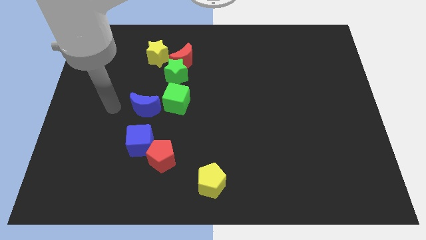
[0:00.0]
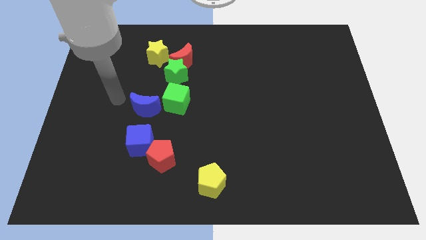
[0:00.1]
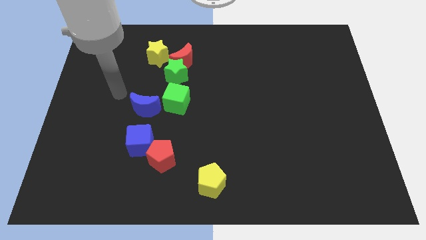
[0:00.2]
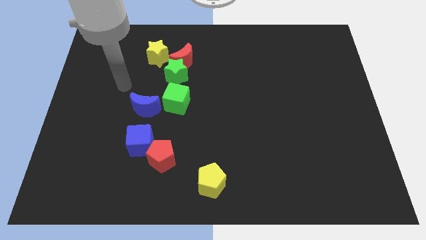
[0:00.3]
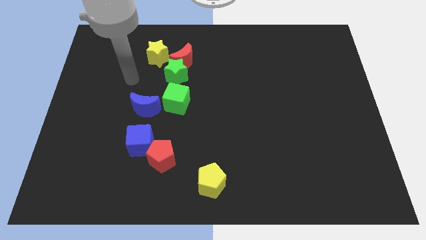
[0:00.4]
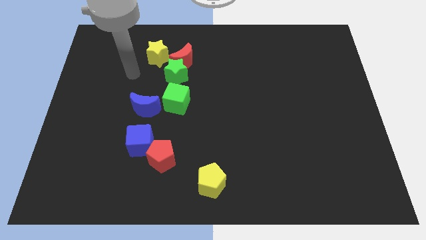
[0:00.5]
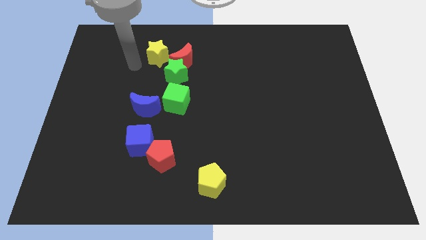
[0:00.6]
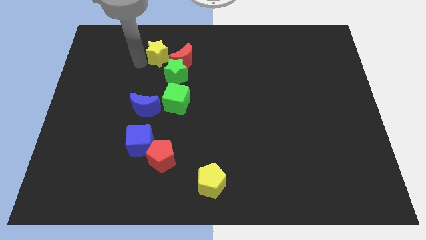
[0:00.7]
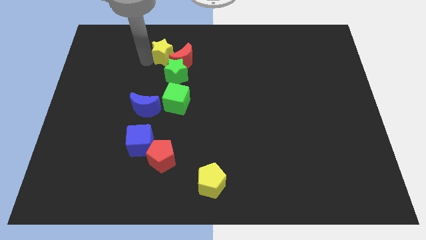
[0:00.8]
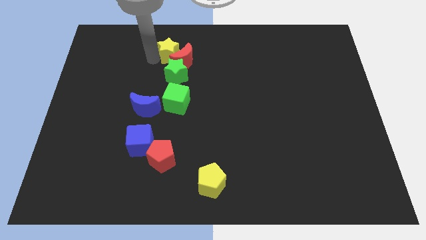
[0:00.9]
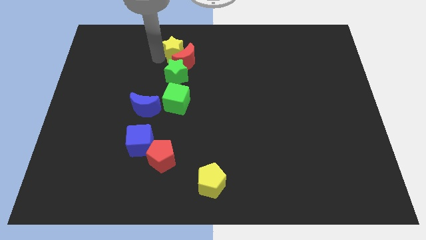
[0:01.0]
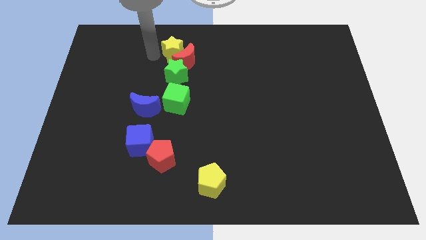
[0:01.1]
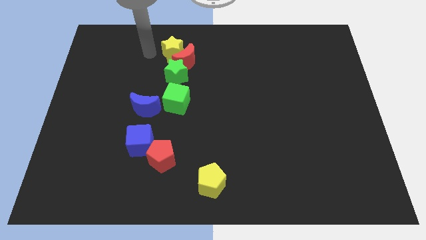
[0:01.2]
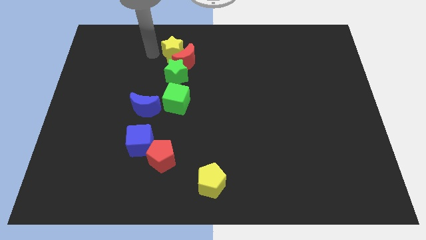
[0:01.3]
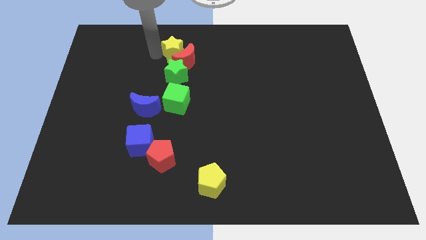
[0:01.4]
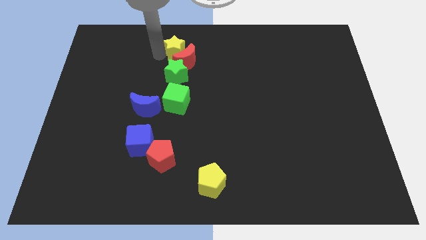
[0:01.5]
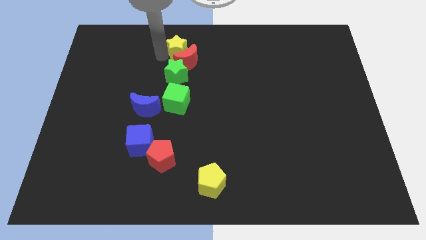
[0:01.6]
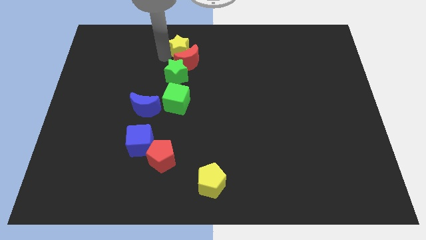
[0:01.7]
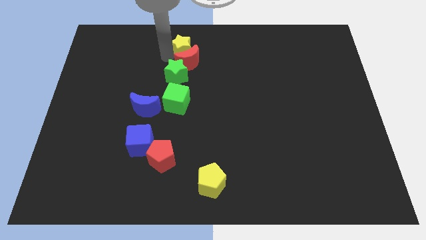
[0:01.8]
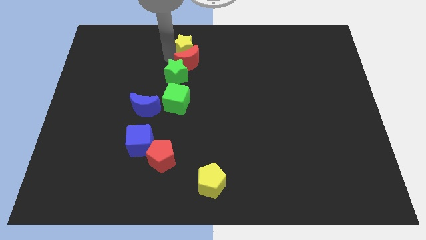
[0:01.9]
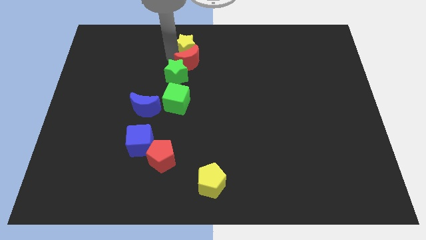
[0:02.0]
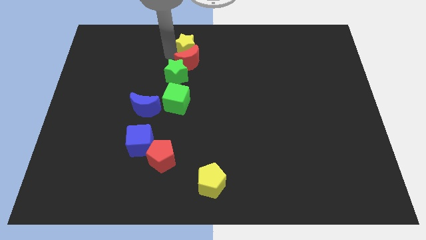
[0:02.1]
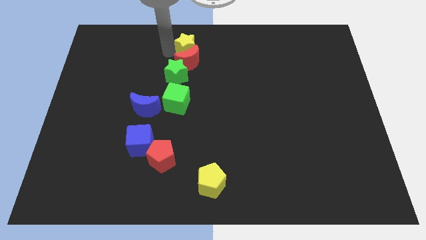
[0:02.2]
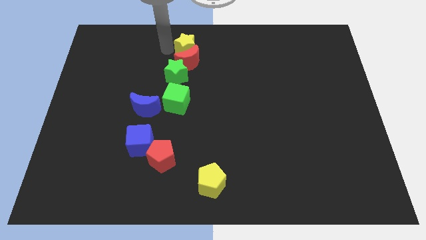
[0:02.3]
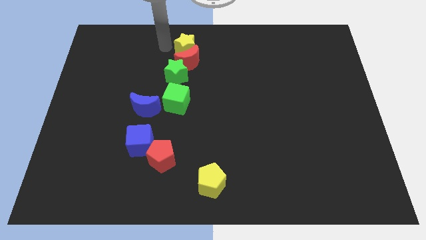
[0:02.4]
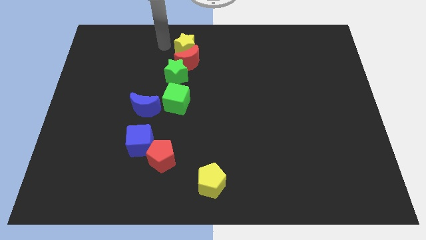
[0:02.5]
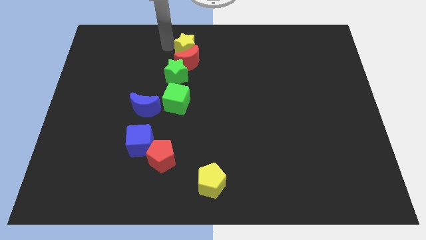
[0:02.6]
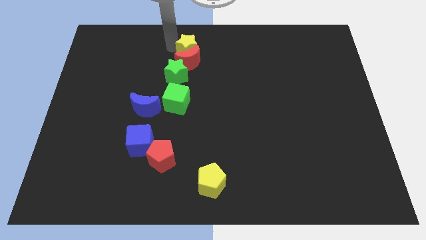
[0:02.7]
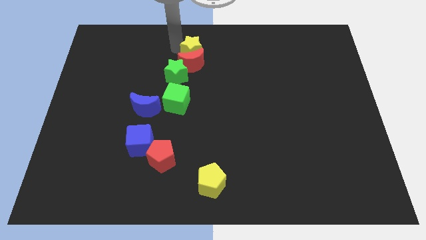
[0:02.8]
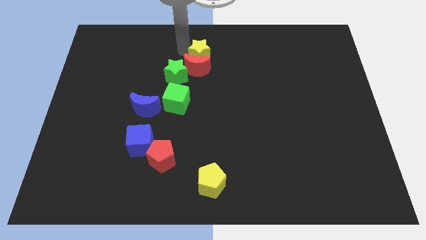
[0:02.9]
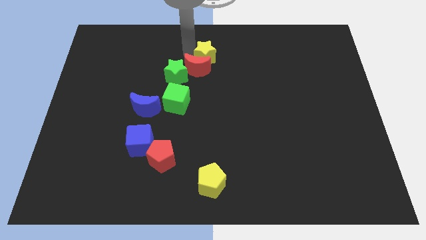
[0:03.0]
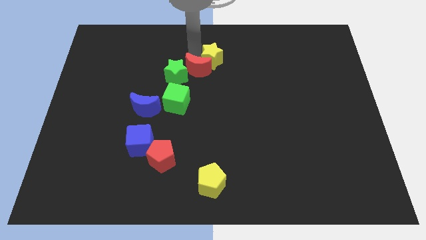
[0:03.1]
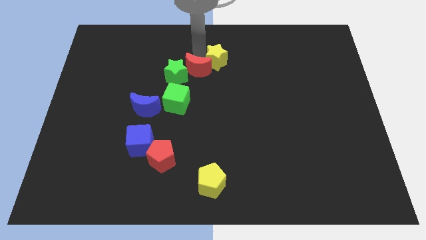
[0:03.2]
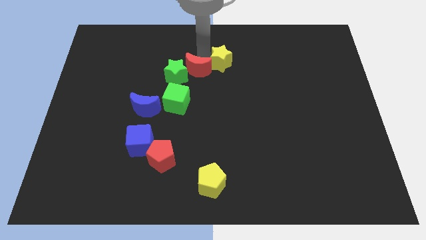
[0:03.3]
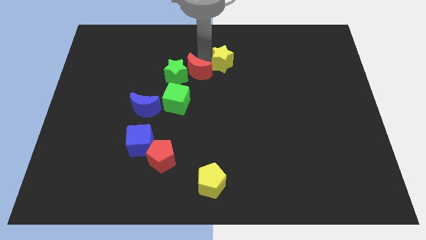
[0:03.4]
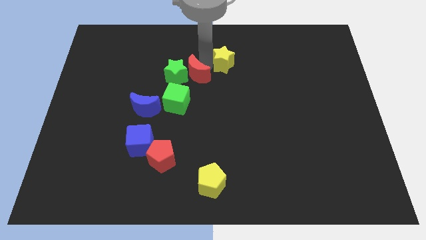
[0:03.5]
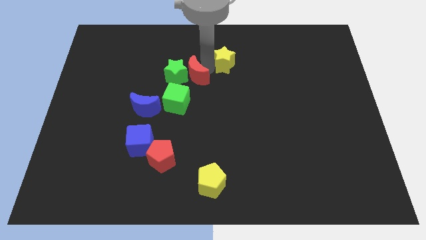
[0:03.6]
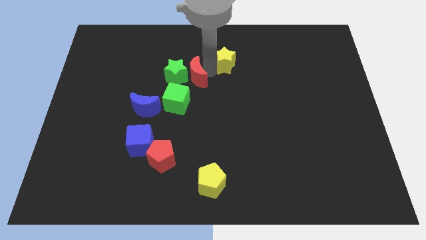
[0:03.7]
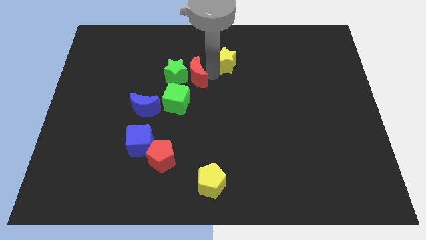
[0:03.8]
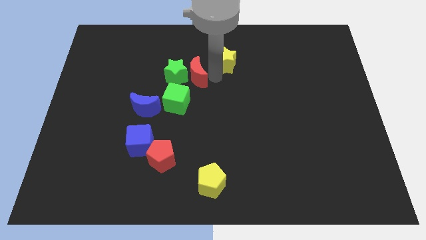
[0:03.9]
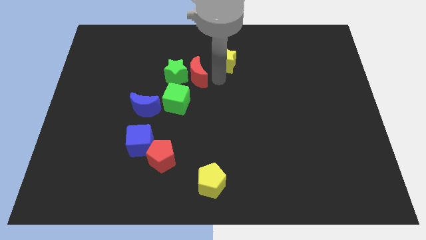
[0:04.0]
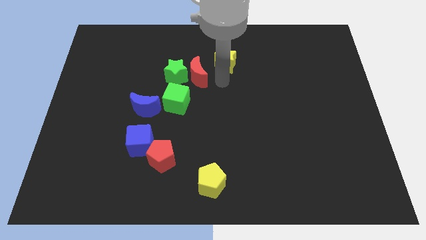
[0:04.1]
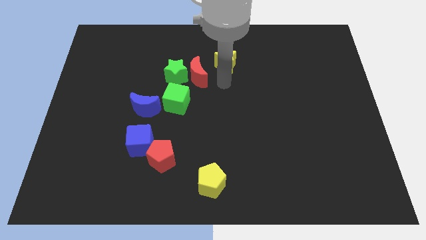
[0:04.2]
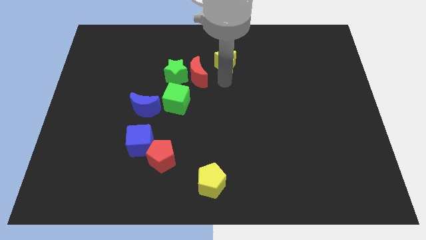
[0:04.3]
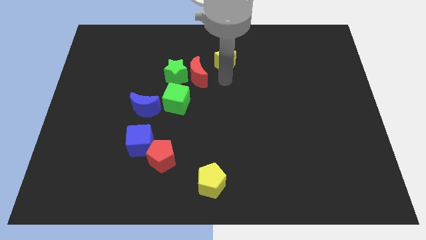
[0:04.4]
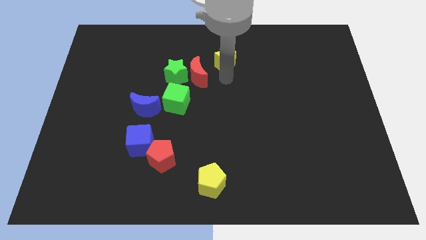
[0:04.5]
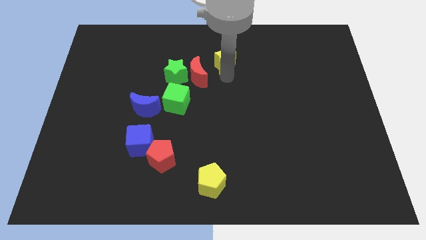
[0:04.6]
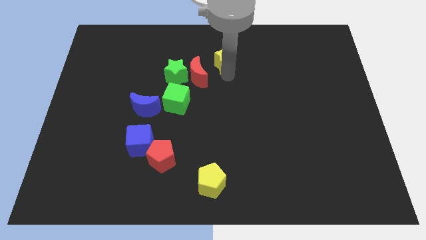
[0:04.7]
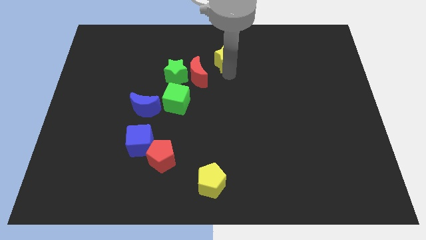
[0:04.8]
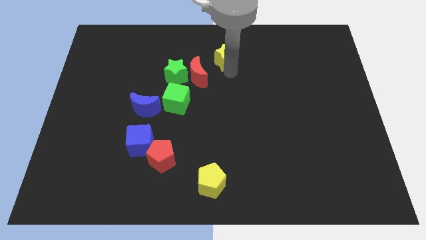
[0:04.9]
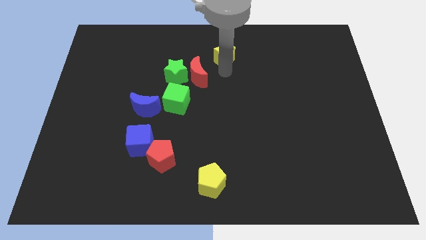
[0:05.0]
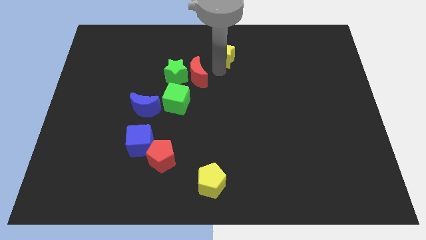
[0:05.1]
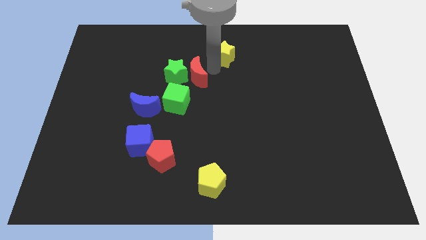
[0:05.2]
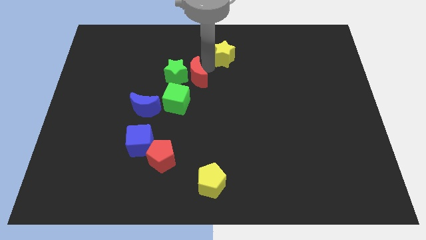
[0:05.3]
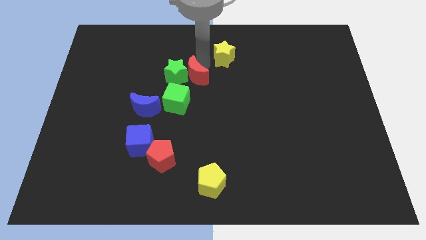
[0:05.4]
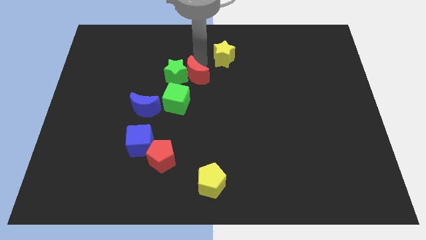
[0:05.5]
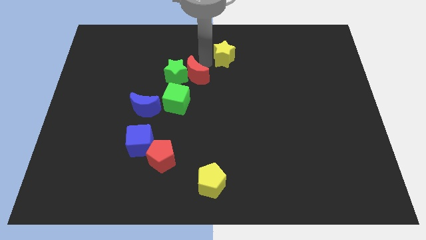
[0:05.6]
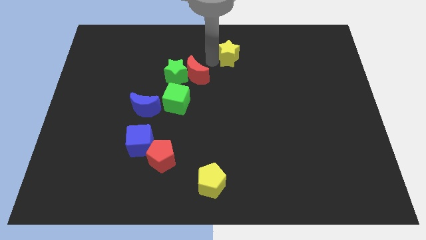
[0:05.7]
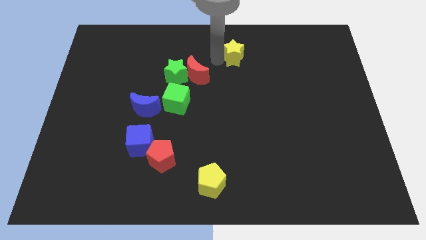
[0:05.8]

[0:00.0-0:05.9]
move the yellow star right

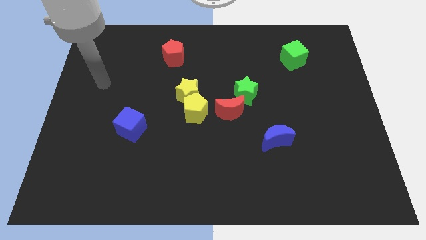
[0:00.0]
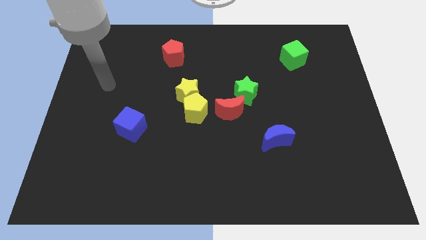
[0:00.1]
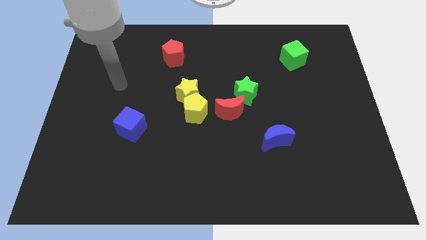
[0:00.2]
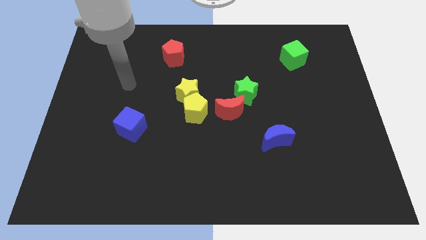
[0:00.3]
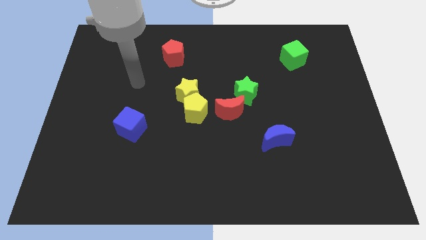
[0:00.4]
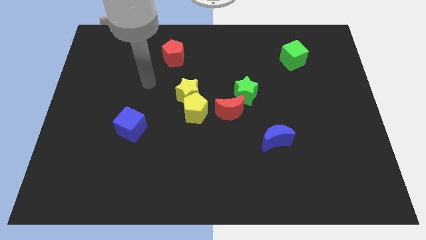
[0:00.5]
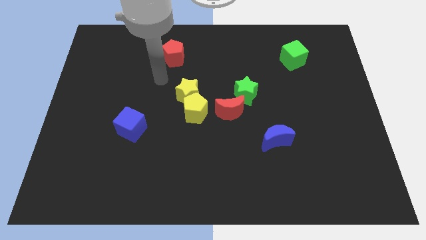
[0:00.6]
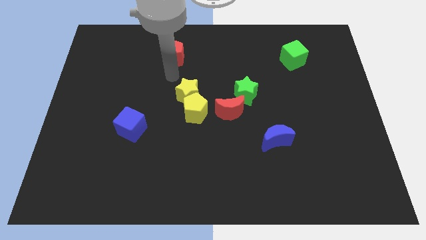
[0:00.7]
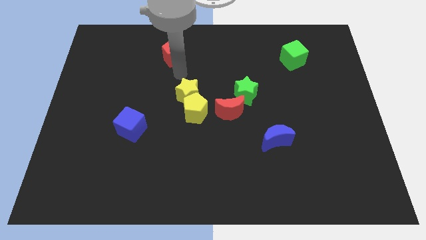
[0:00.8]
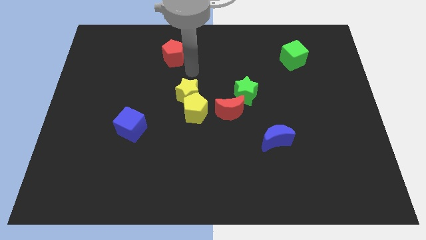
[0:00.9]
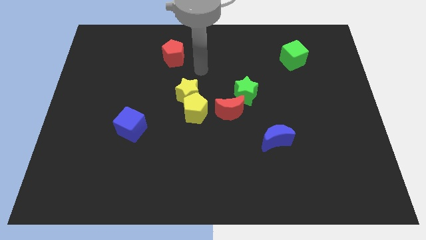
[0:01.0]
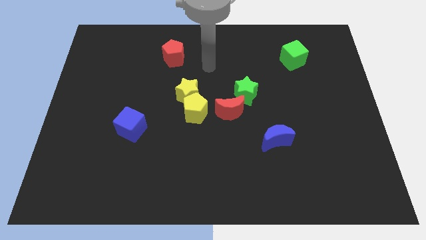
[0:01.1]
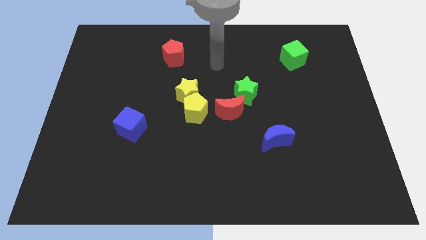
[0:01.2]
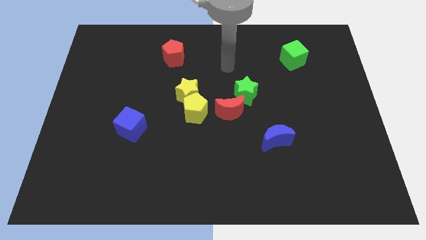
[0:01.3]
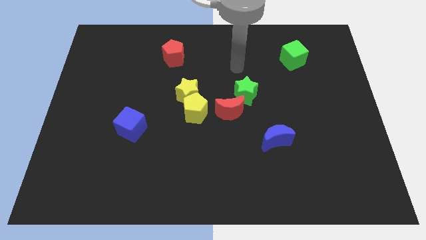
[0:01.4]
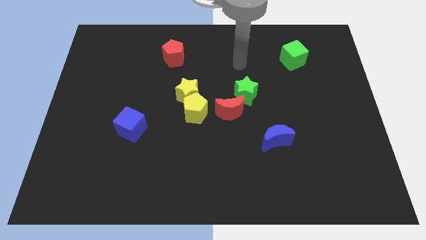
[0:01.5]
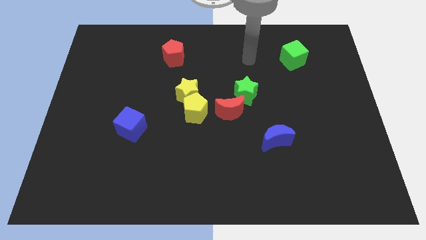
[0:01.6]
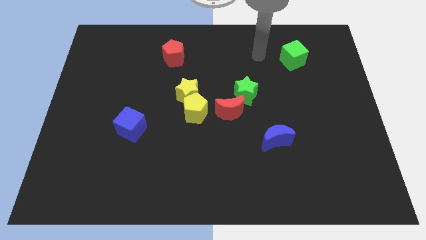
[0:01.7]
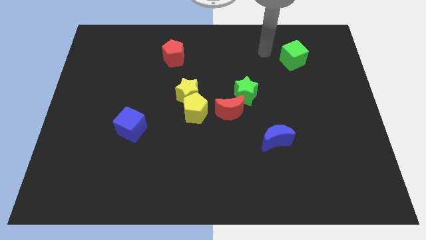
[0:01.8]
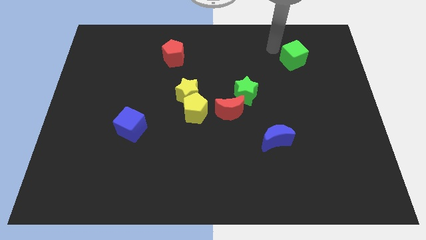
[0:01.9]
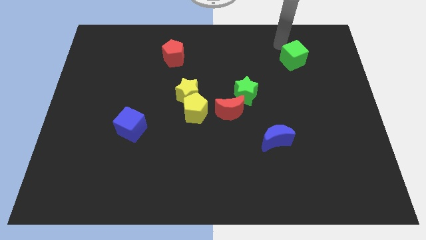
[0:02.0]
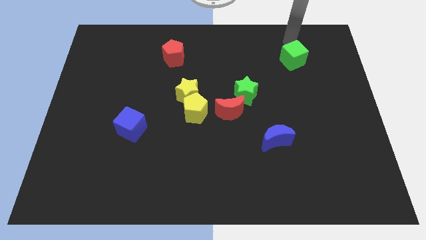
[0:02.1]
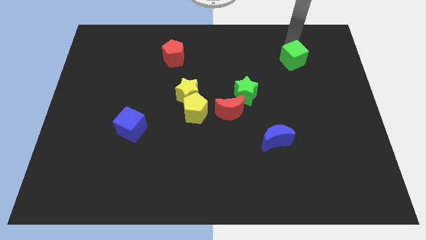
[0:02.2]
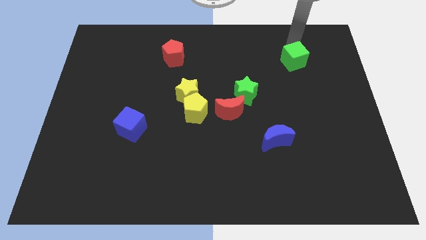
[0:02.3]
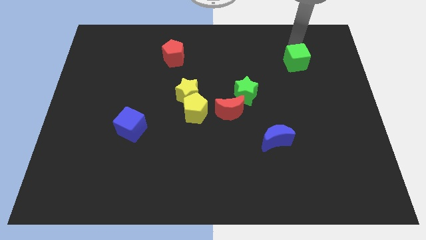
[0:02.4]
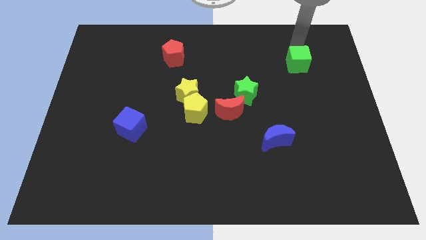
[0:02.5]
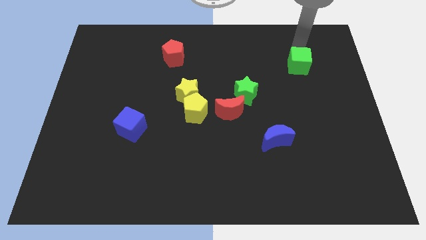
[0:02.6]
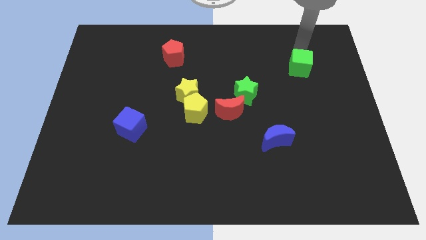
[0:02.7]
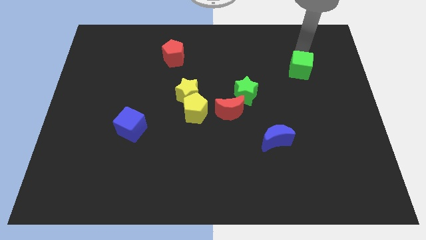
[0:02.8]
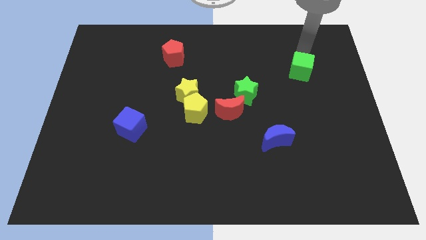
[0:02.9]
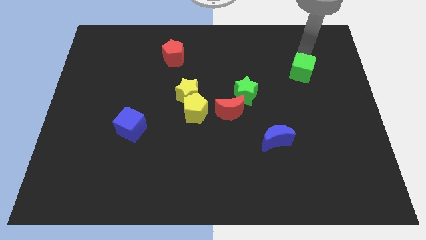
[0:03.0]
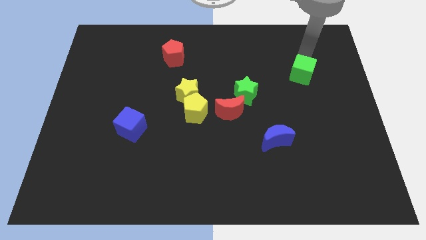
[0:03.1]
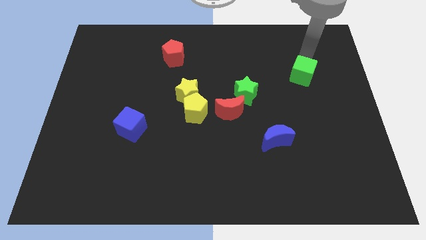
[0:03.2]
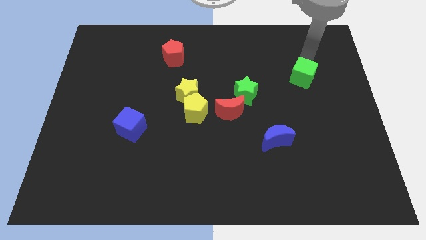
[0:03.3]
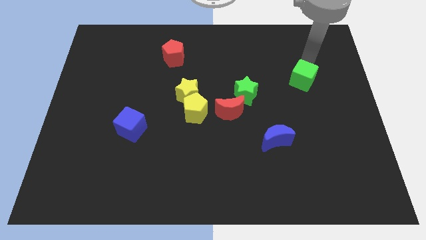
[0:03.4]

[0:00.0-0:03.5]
move the green cube somewhat downwards
